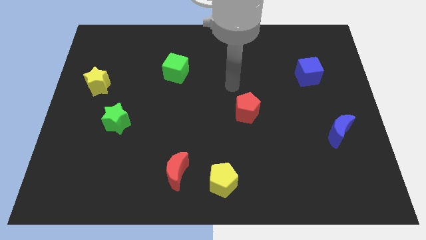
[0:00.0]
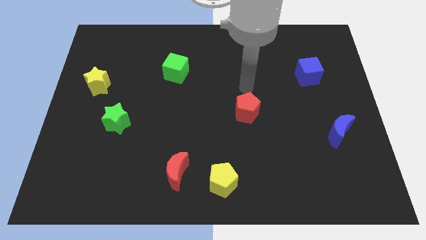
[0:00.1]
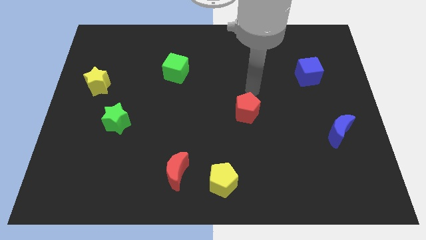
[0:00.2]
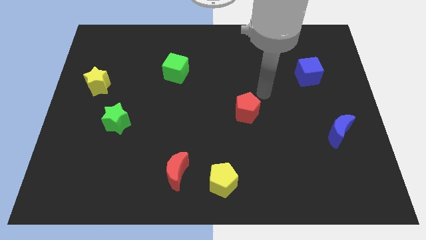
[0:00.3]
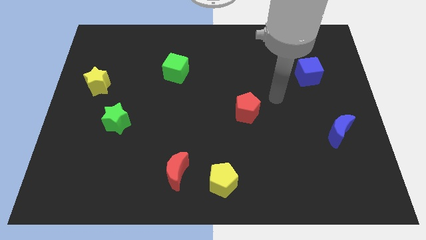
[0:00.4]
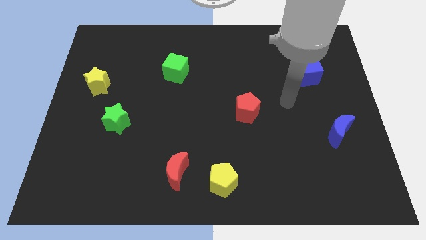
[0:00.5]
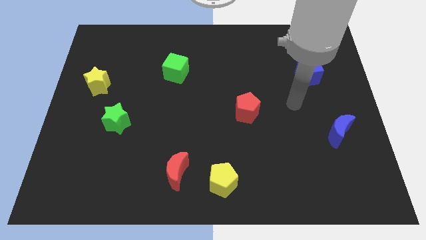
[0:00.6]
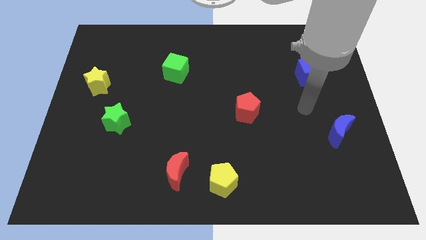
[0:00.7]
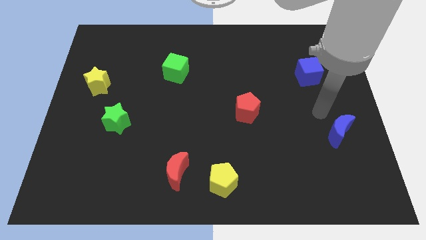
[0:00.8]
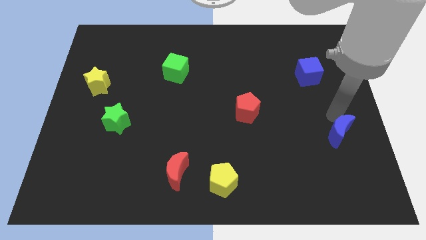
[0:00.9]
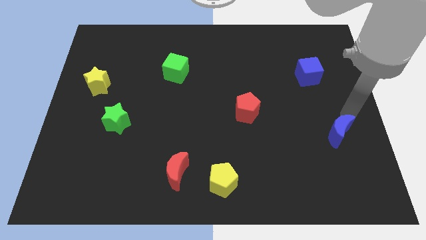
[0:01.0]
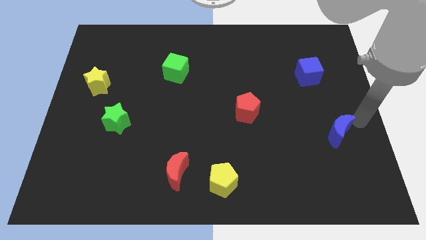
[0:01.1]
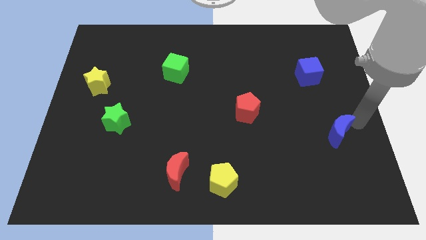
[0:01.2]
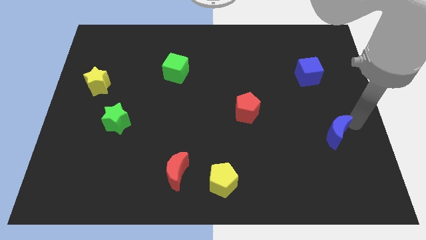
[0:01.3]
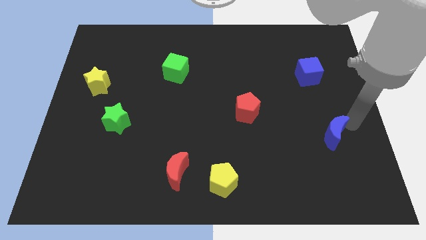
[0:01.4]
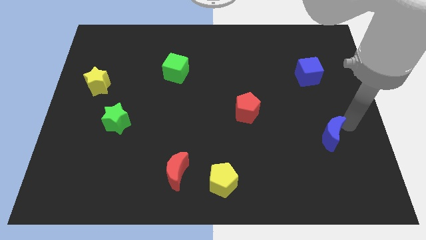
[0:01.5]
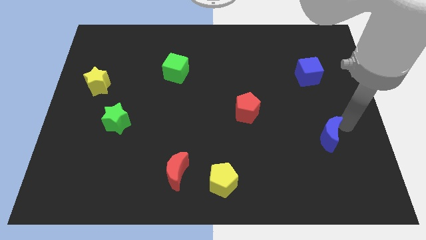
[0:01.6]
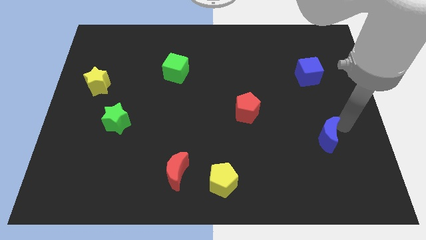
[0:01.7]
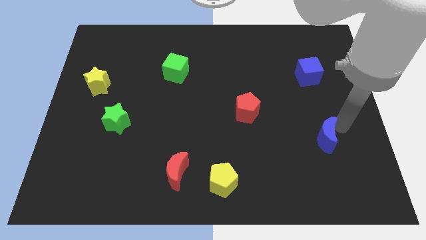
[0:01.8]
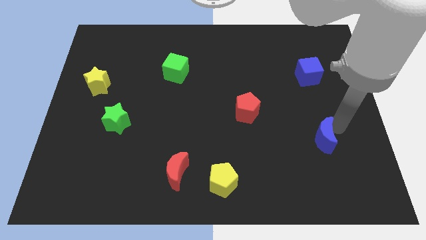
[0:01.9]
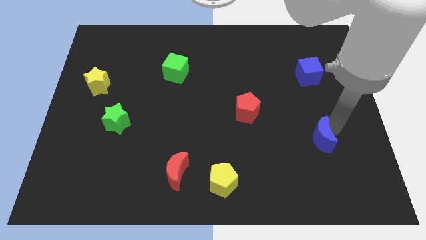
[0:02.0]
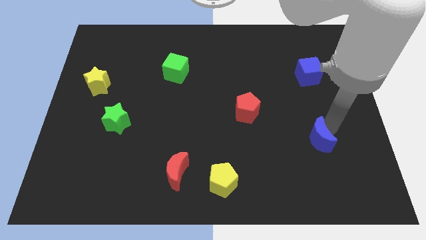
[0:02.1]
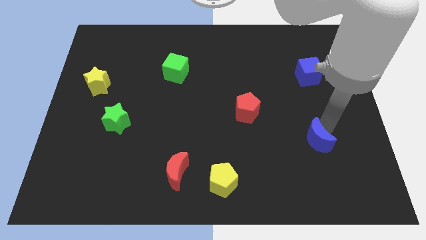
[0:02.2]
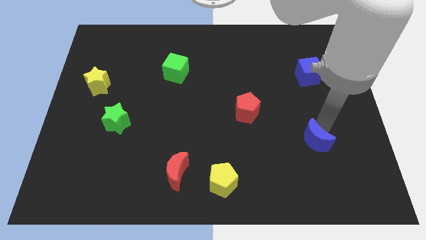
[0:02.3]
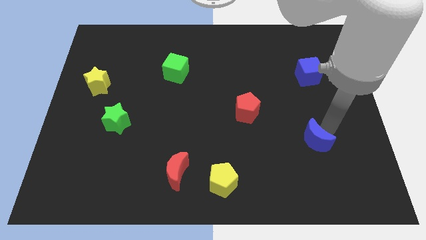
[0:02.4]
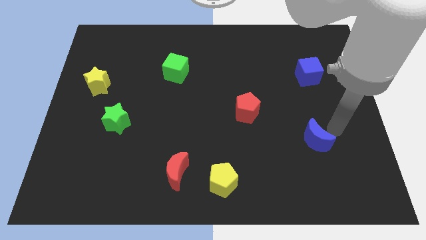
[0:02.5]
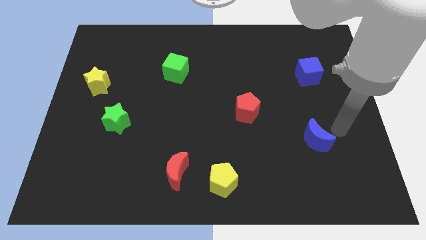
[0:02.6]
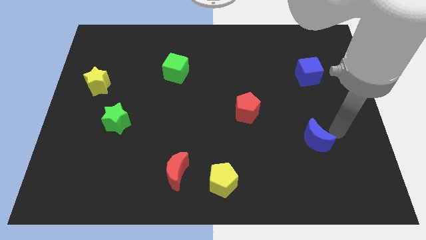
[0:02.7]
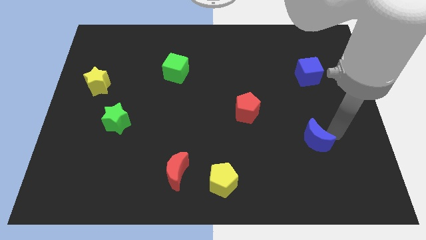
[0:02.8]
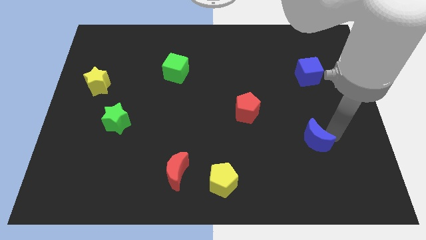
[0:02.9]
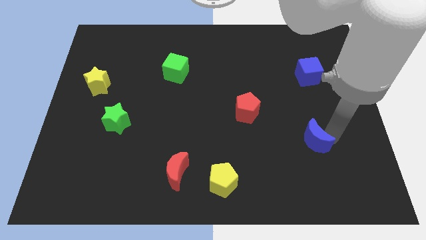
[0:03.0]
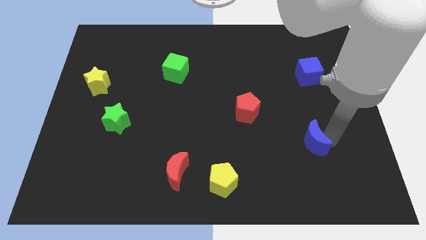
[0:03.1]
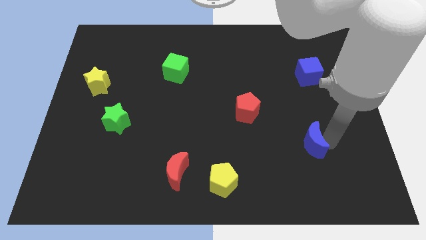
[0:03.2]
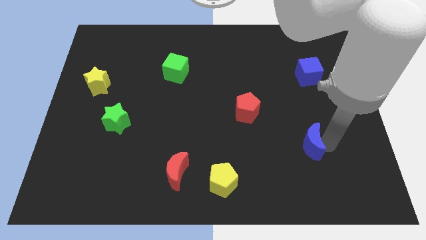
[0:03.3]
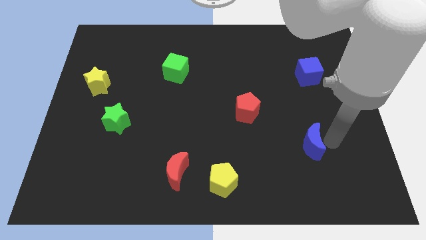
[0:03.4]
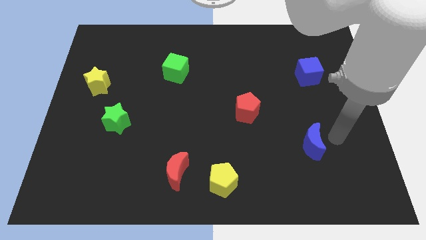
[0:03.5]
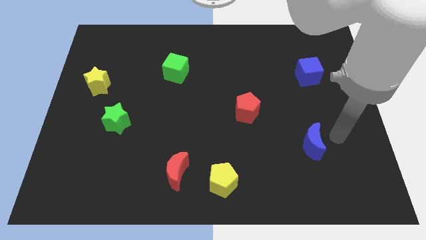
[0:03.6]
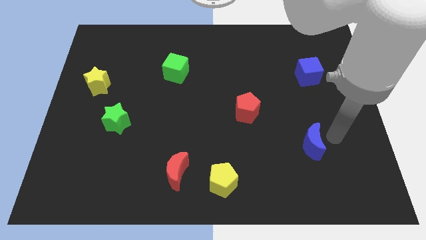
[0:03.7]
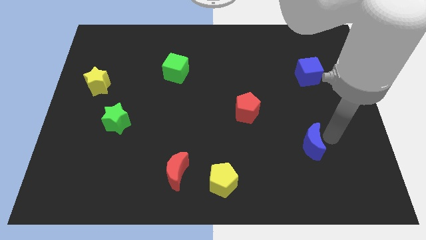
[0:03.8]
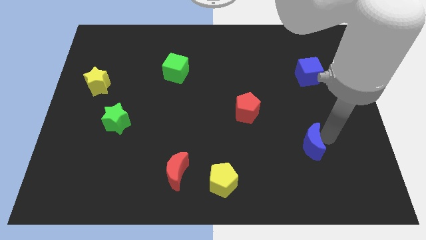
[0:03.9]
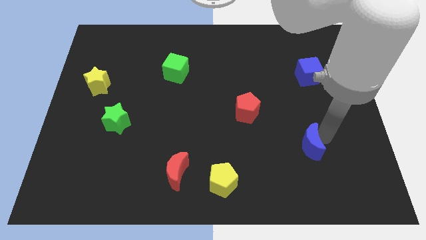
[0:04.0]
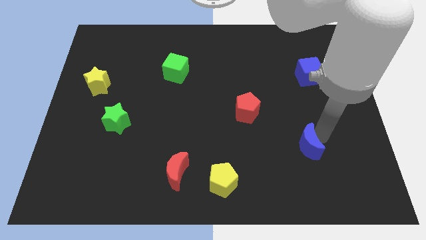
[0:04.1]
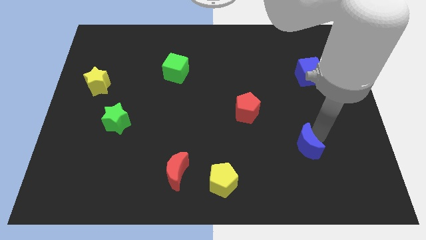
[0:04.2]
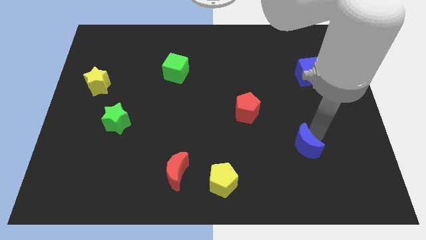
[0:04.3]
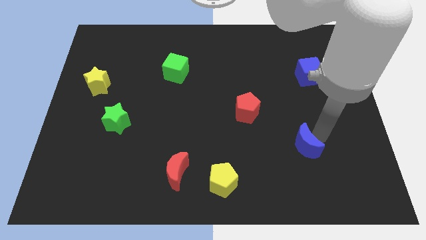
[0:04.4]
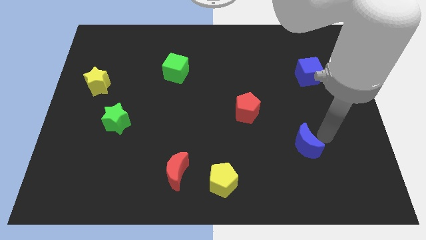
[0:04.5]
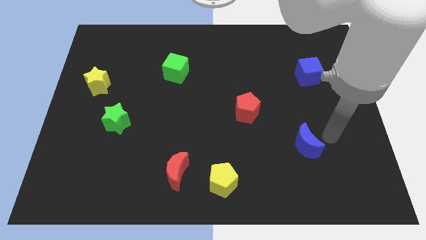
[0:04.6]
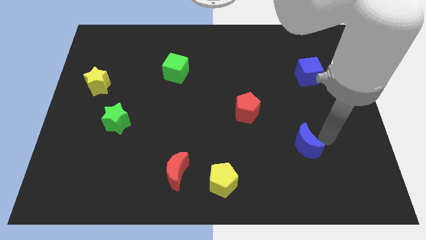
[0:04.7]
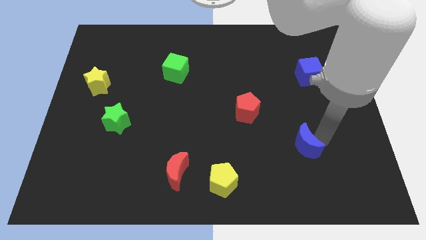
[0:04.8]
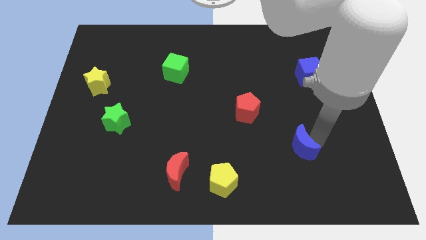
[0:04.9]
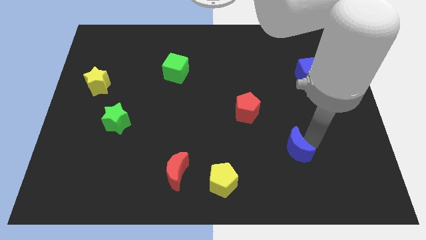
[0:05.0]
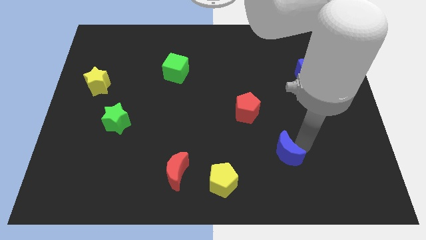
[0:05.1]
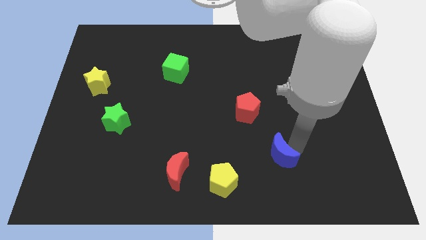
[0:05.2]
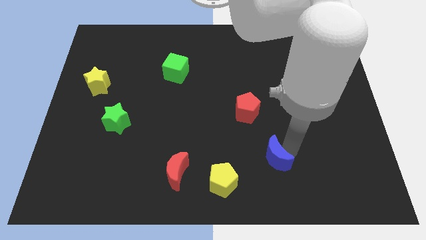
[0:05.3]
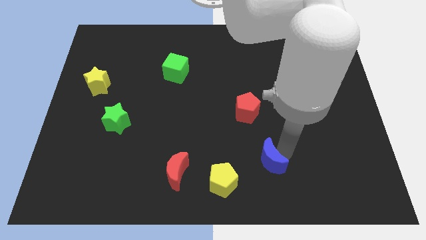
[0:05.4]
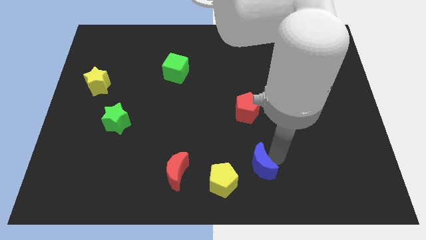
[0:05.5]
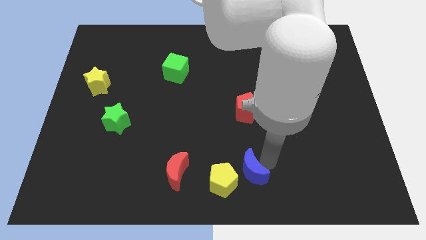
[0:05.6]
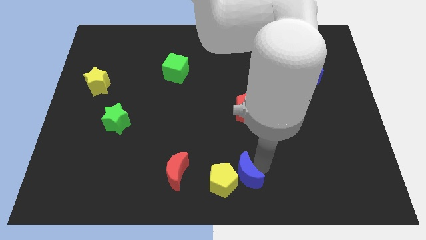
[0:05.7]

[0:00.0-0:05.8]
move the blue moon to the yellow pentagon

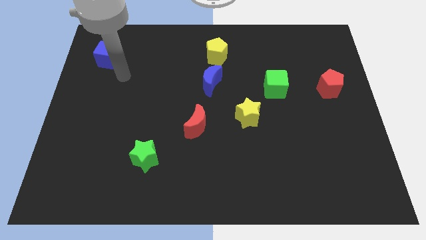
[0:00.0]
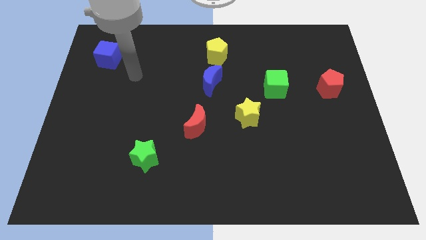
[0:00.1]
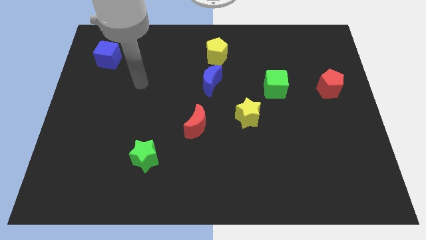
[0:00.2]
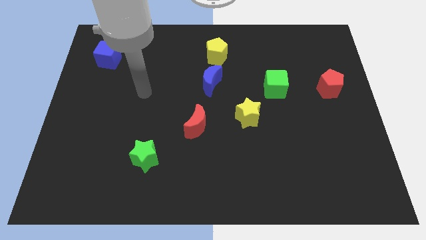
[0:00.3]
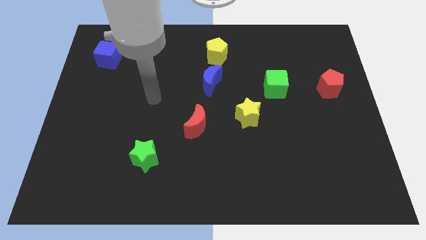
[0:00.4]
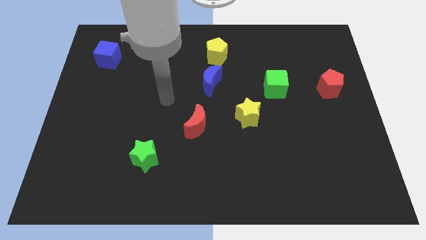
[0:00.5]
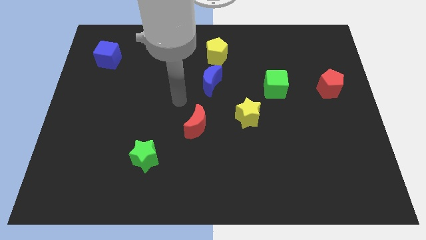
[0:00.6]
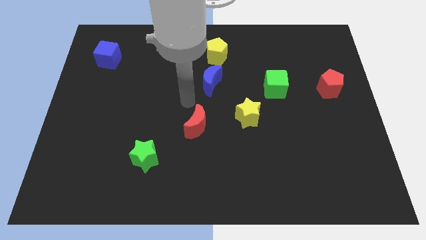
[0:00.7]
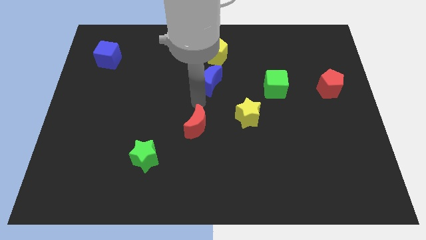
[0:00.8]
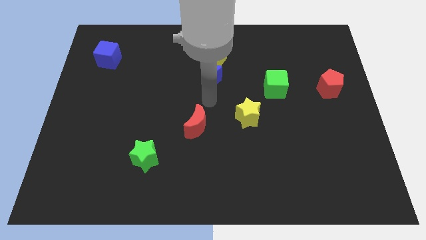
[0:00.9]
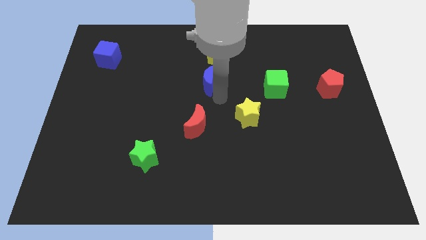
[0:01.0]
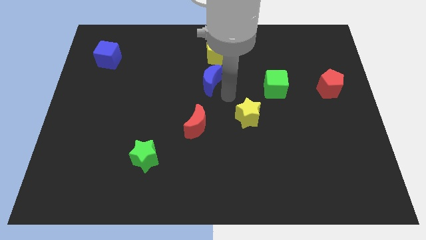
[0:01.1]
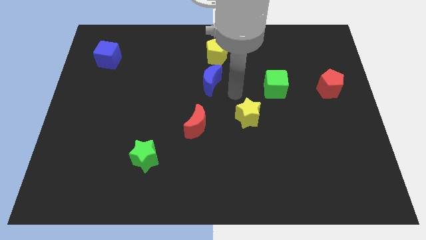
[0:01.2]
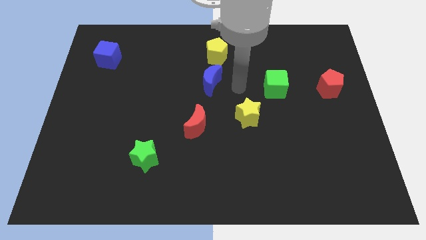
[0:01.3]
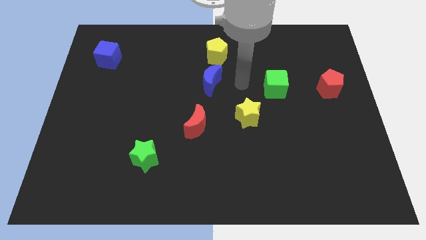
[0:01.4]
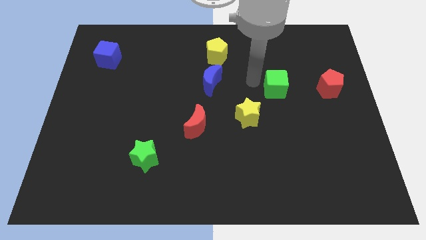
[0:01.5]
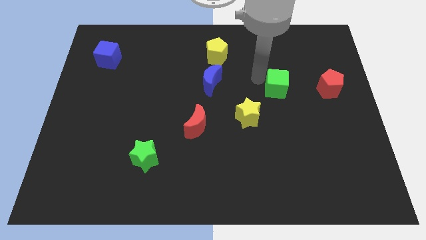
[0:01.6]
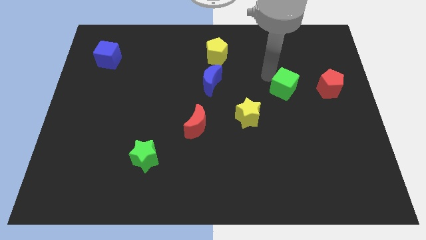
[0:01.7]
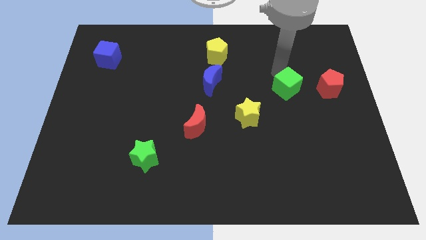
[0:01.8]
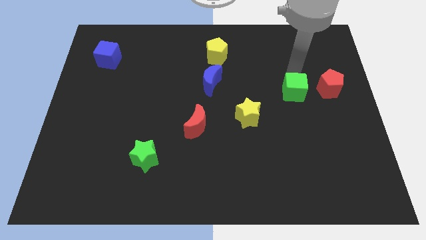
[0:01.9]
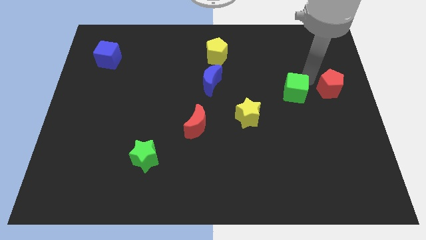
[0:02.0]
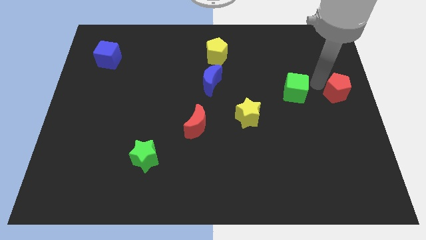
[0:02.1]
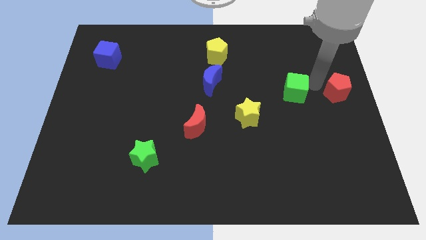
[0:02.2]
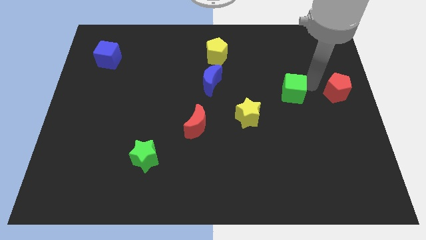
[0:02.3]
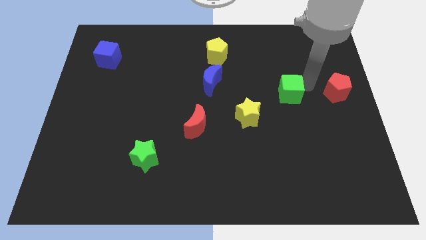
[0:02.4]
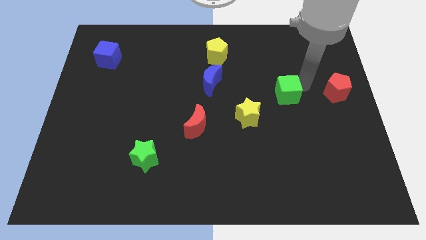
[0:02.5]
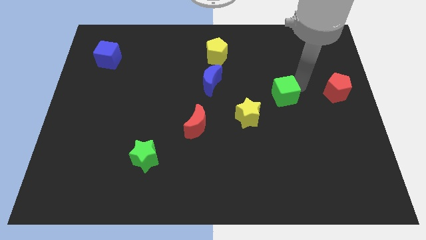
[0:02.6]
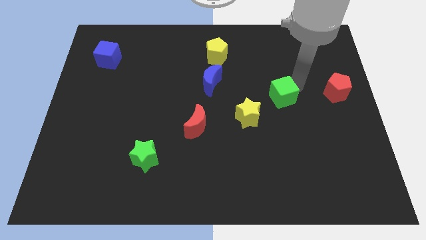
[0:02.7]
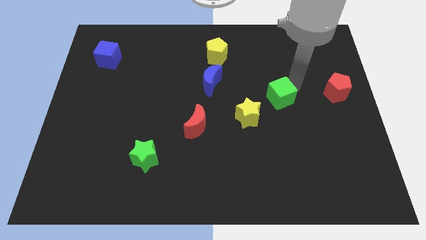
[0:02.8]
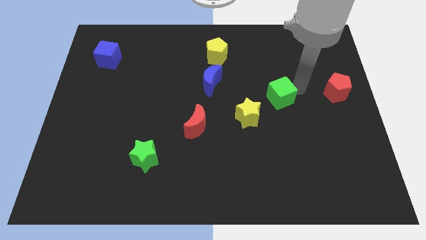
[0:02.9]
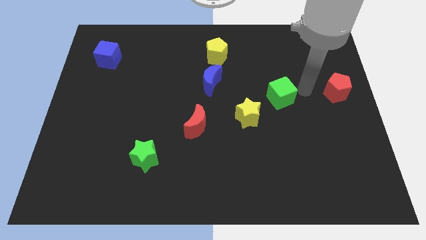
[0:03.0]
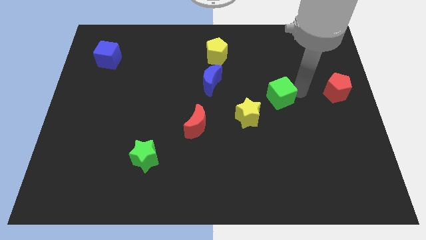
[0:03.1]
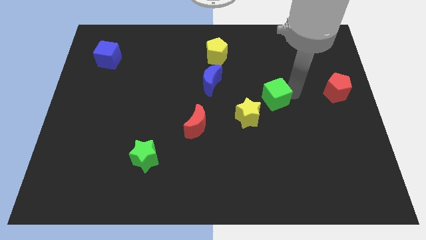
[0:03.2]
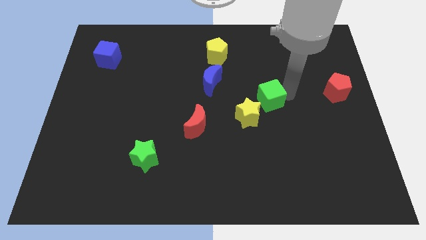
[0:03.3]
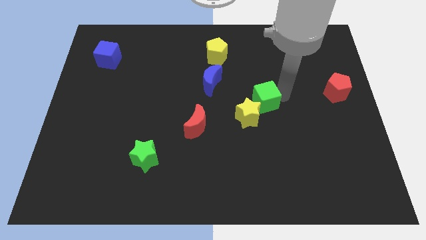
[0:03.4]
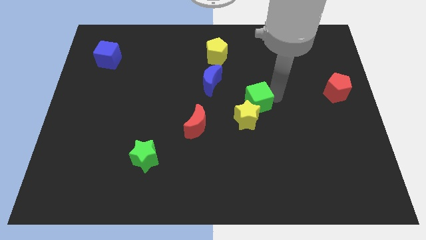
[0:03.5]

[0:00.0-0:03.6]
move the green cube to the yellow star
